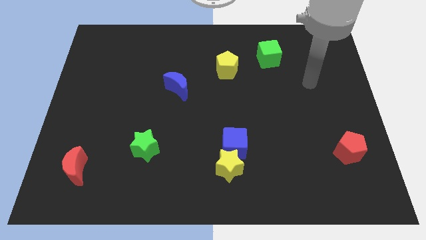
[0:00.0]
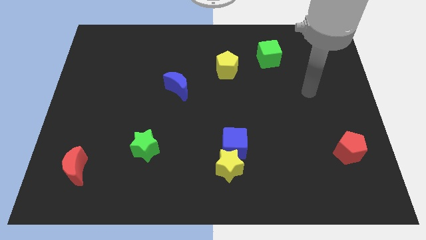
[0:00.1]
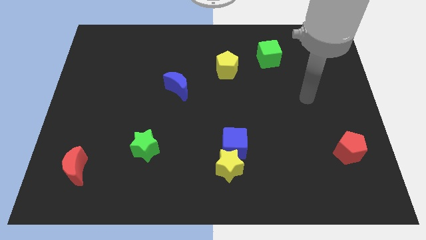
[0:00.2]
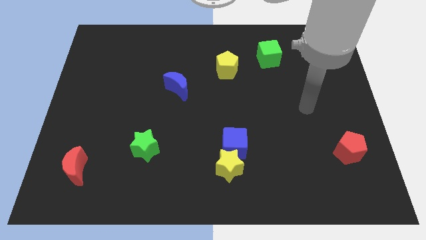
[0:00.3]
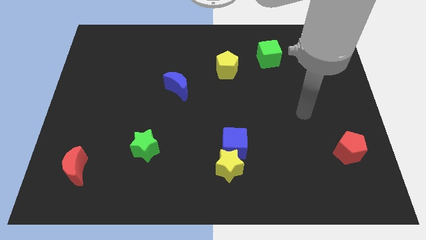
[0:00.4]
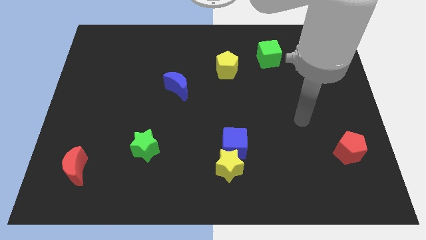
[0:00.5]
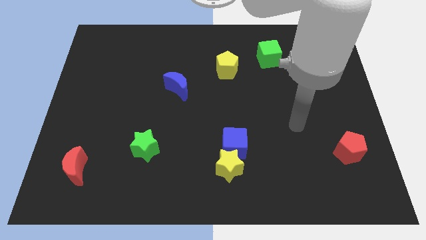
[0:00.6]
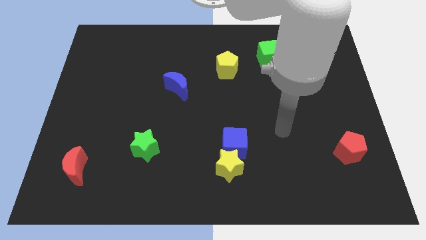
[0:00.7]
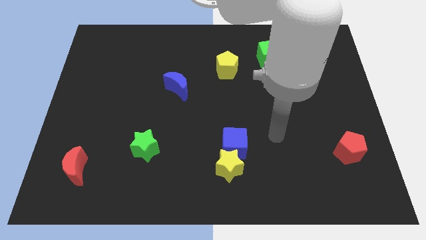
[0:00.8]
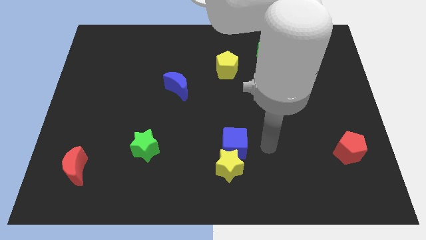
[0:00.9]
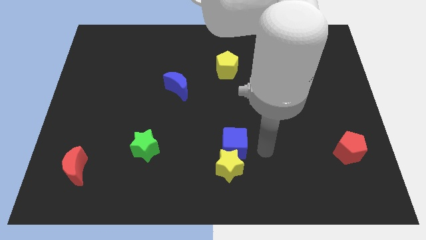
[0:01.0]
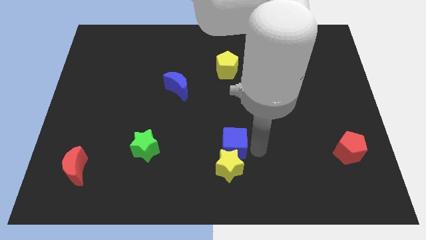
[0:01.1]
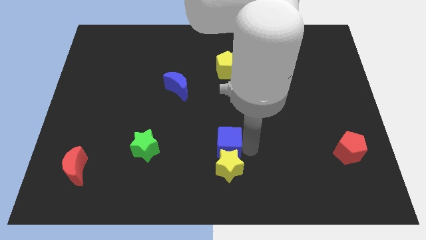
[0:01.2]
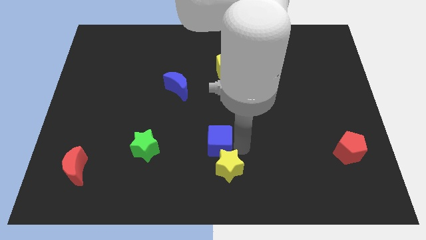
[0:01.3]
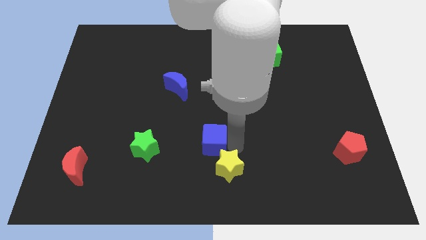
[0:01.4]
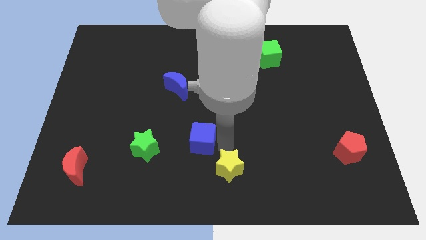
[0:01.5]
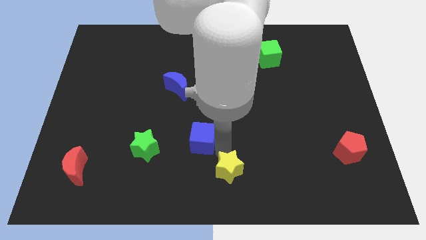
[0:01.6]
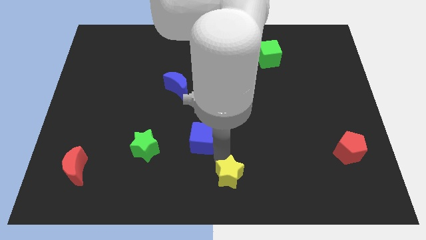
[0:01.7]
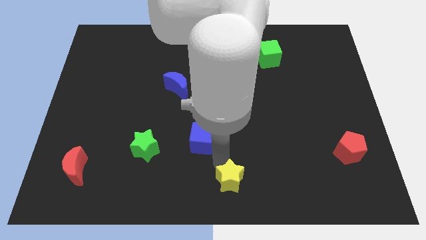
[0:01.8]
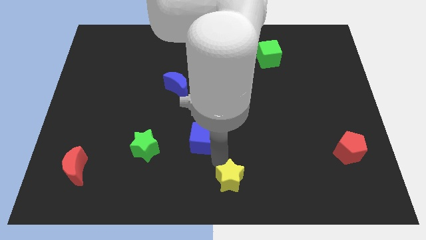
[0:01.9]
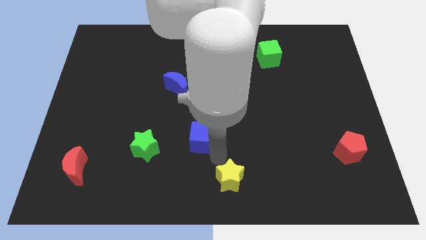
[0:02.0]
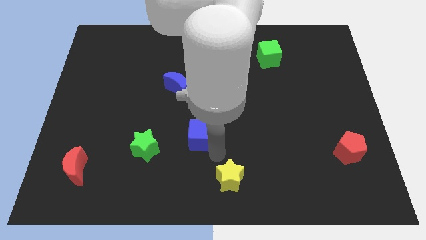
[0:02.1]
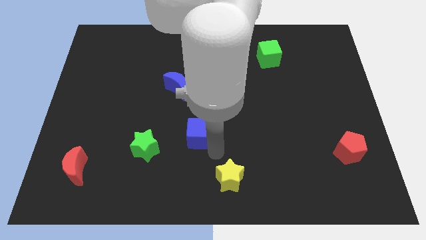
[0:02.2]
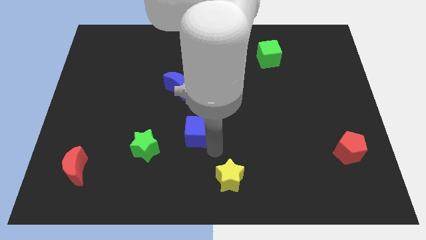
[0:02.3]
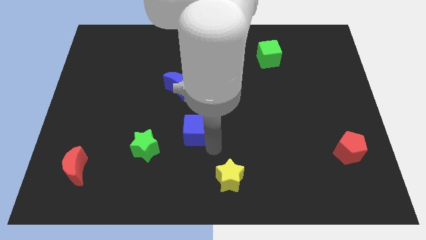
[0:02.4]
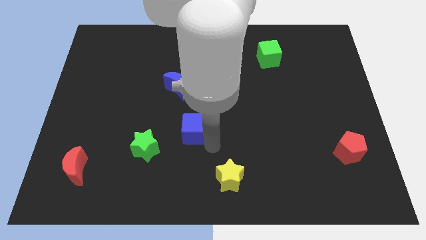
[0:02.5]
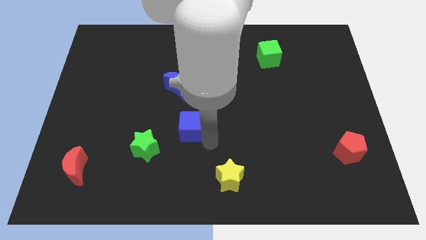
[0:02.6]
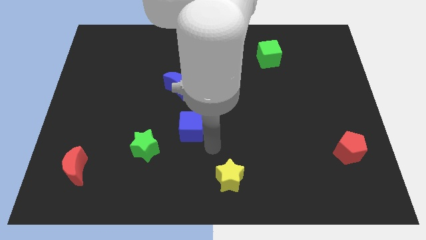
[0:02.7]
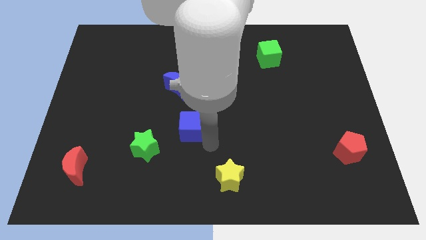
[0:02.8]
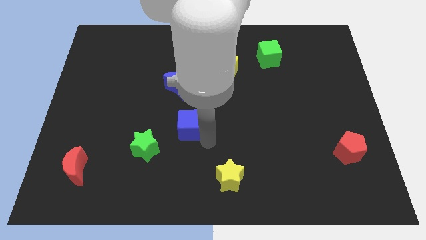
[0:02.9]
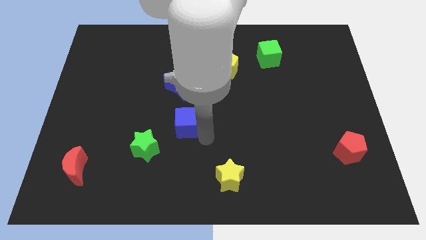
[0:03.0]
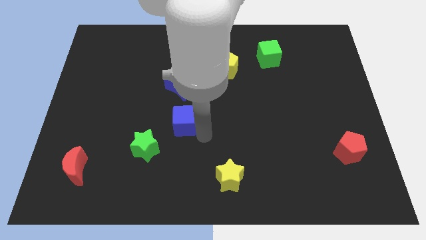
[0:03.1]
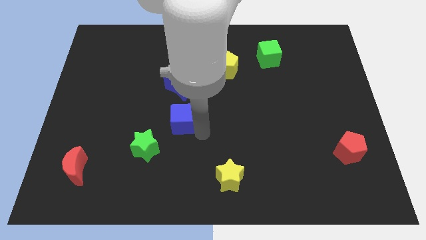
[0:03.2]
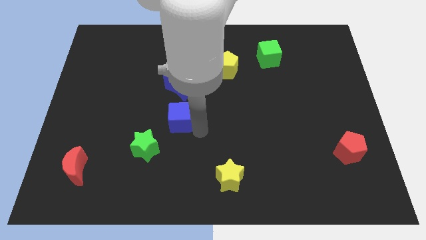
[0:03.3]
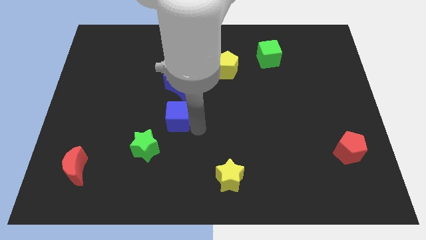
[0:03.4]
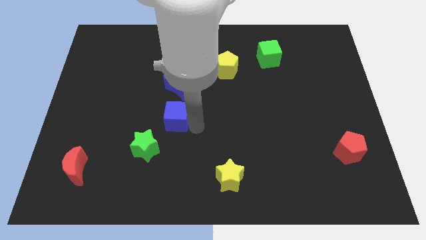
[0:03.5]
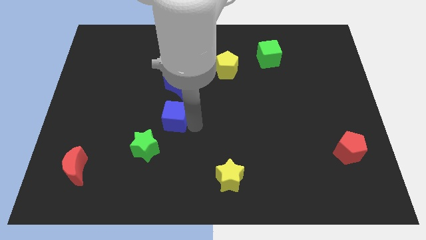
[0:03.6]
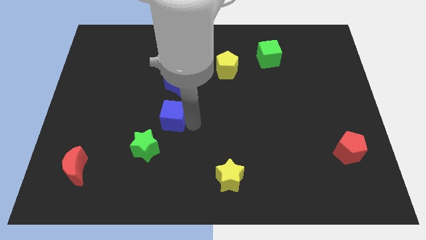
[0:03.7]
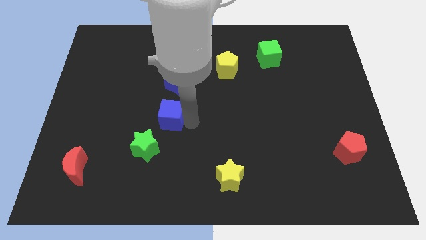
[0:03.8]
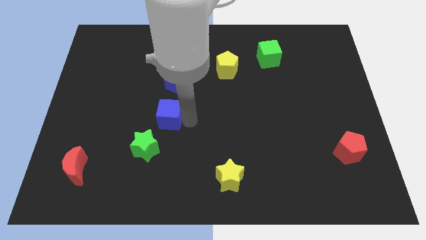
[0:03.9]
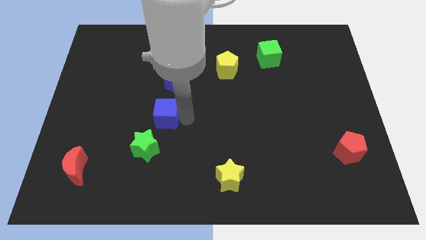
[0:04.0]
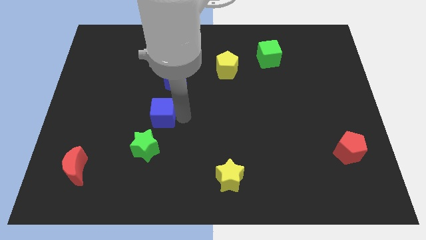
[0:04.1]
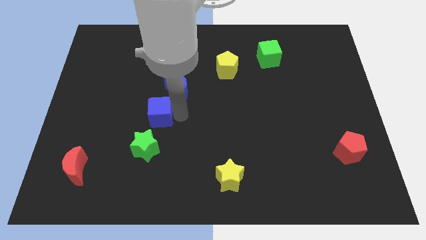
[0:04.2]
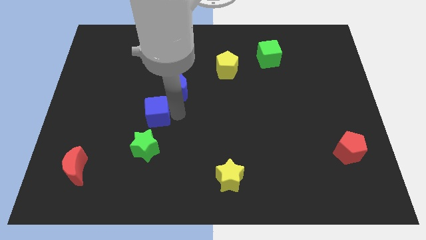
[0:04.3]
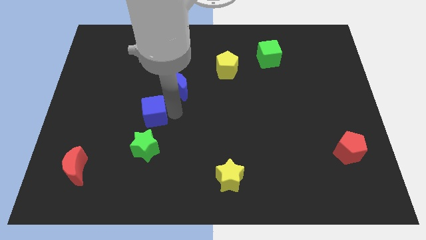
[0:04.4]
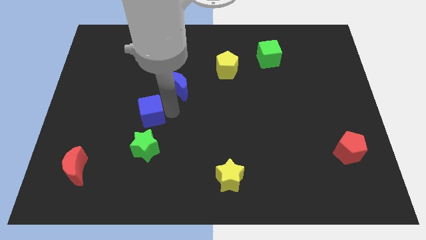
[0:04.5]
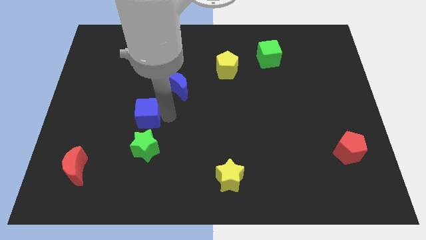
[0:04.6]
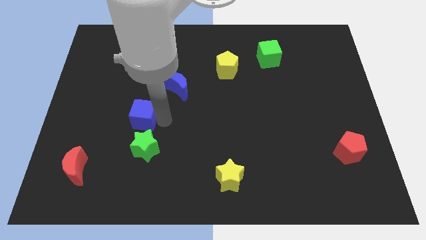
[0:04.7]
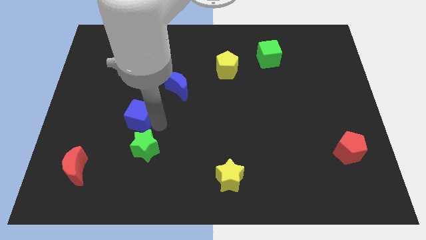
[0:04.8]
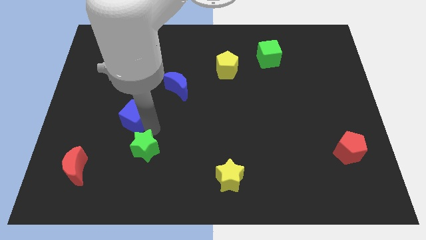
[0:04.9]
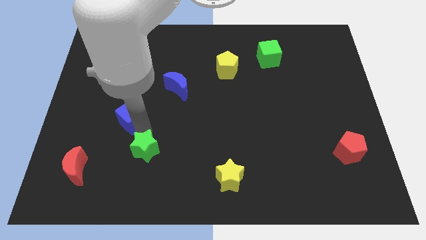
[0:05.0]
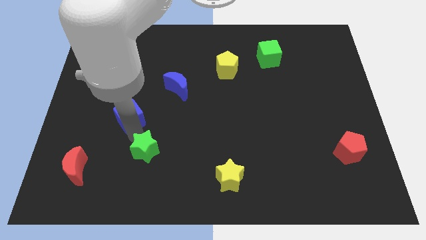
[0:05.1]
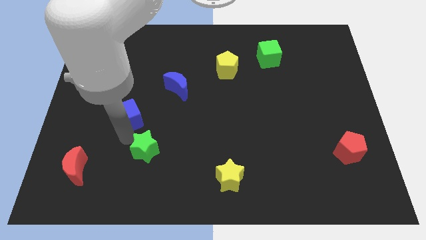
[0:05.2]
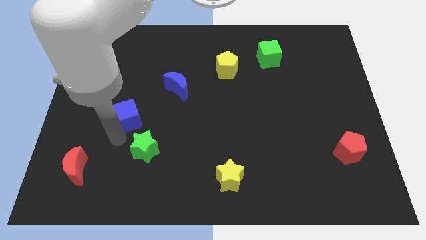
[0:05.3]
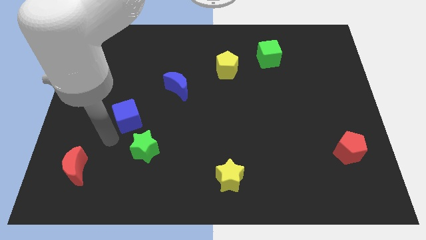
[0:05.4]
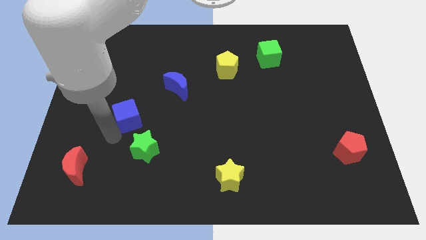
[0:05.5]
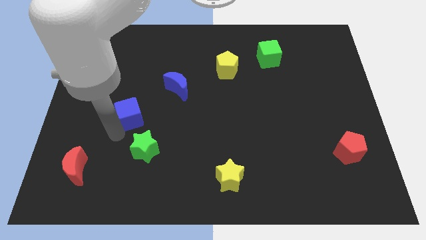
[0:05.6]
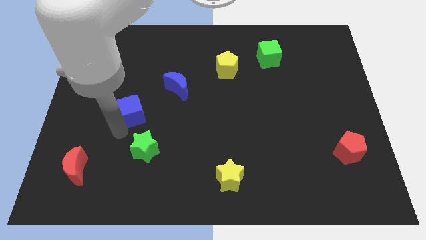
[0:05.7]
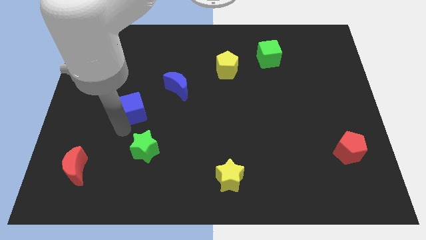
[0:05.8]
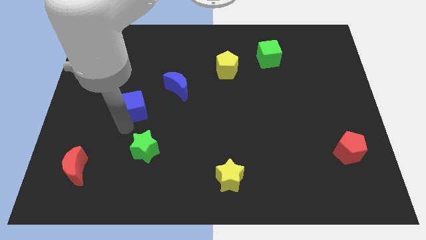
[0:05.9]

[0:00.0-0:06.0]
slide the blue cube up and to the left

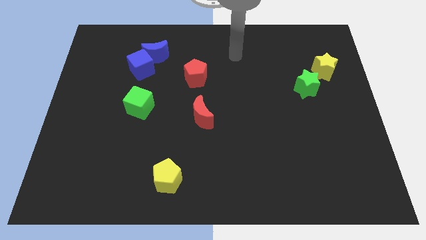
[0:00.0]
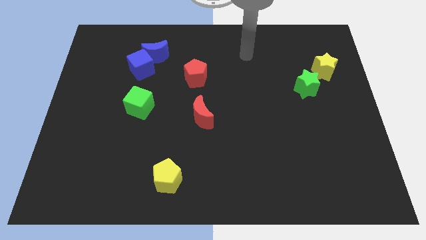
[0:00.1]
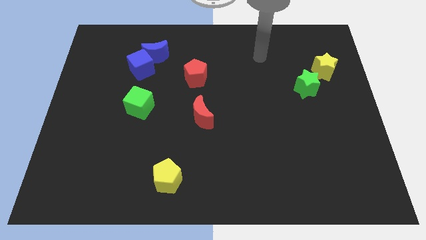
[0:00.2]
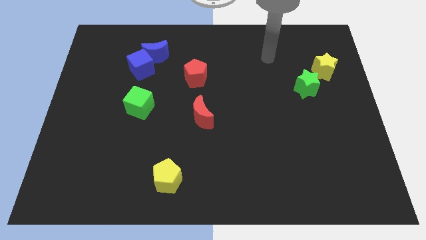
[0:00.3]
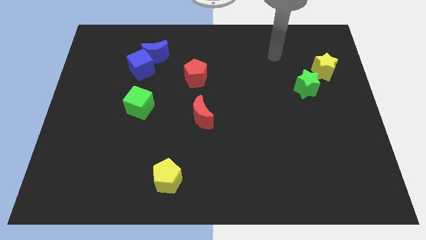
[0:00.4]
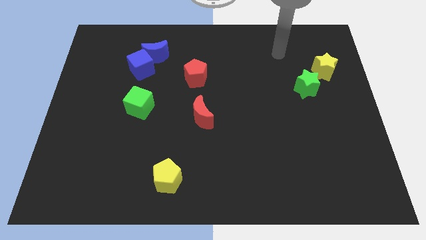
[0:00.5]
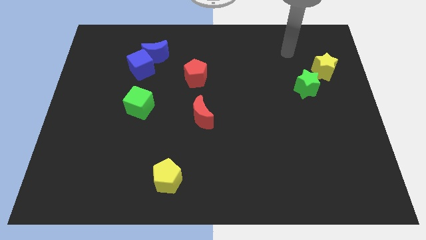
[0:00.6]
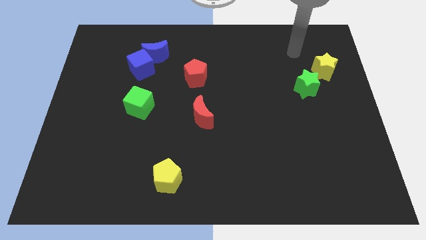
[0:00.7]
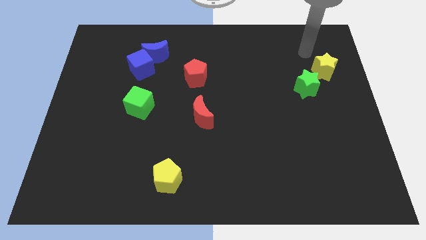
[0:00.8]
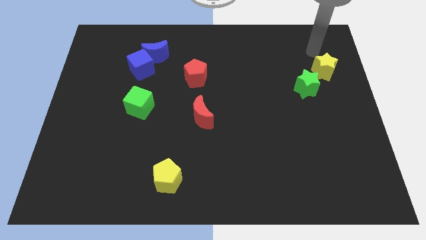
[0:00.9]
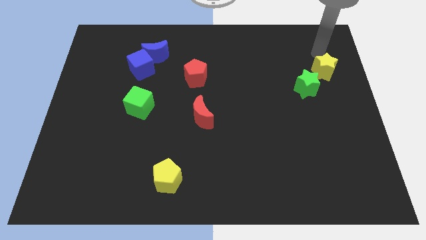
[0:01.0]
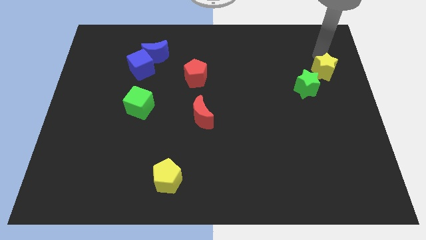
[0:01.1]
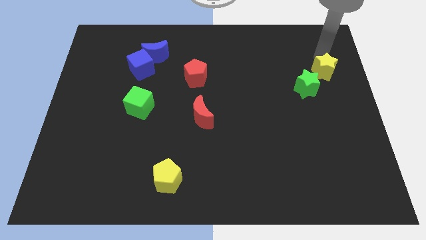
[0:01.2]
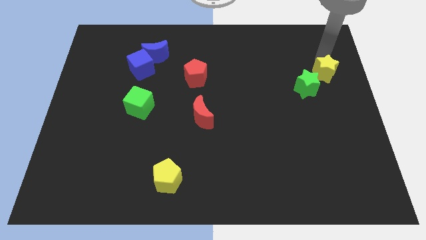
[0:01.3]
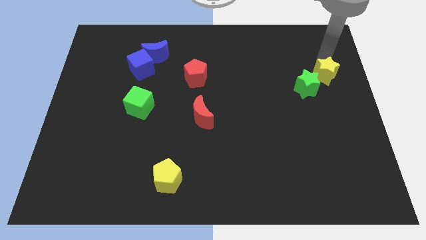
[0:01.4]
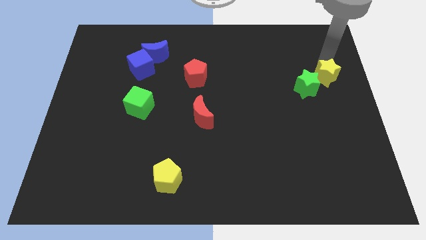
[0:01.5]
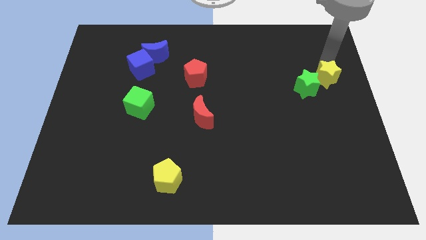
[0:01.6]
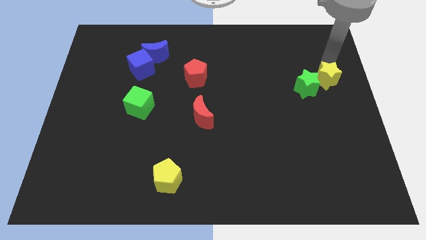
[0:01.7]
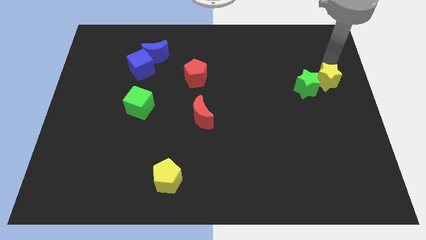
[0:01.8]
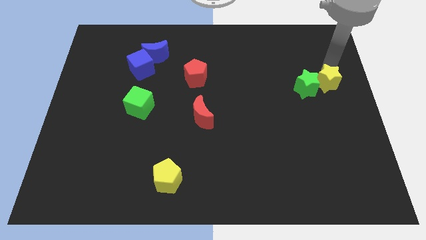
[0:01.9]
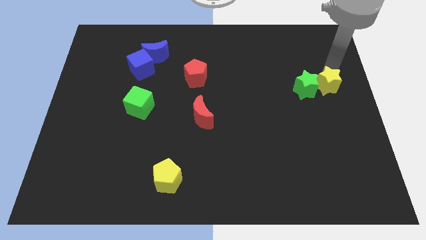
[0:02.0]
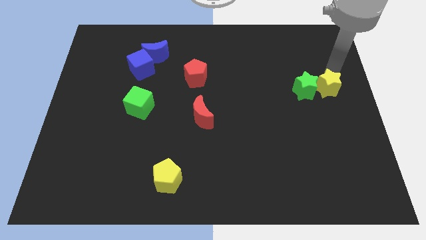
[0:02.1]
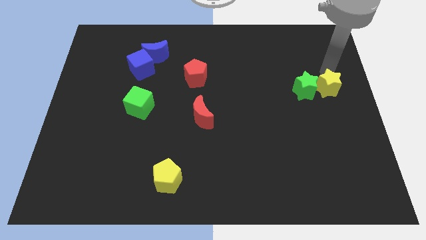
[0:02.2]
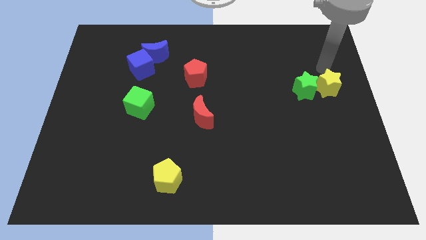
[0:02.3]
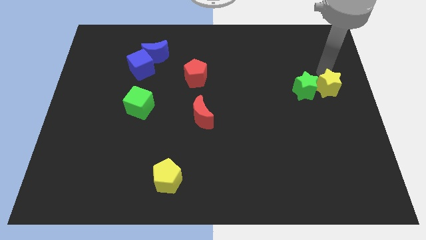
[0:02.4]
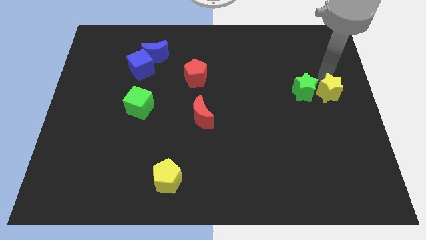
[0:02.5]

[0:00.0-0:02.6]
slightly slide the yellow star downwards
